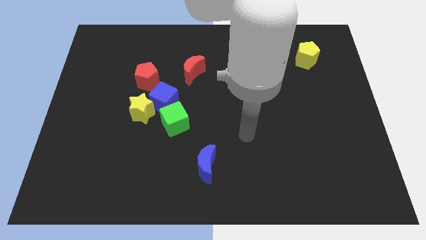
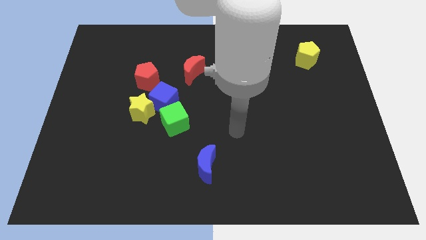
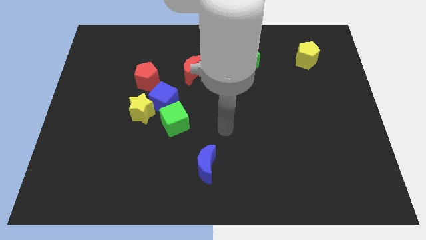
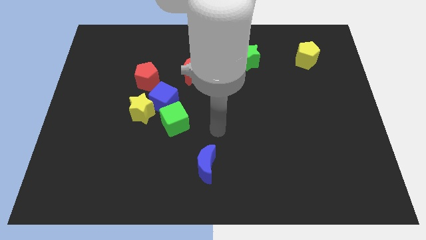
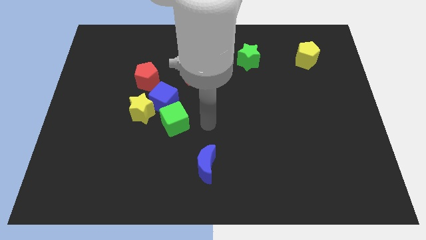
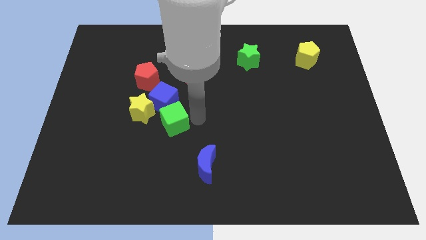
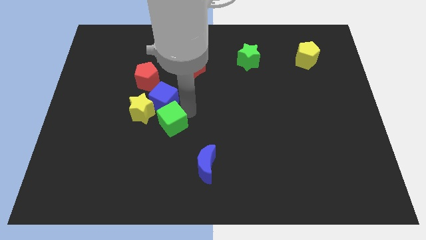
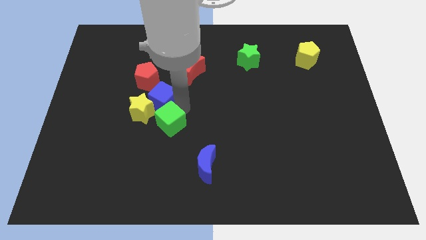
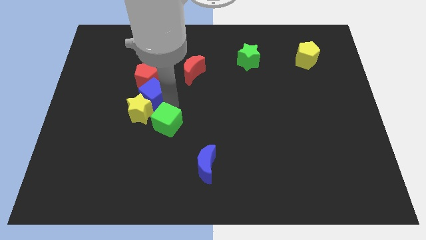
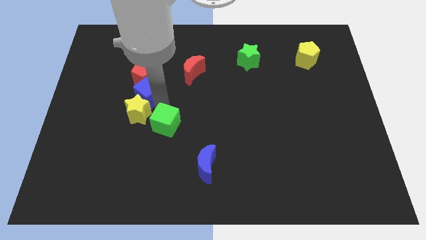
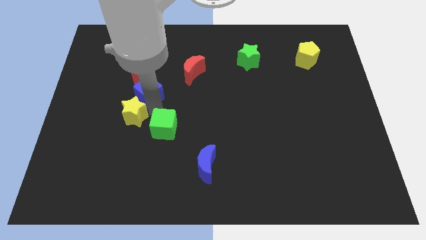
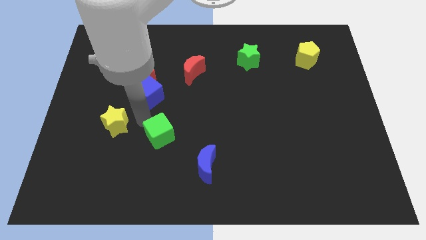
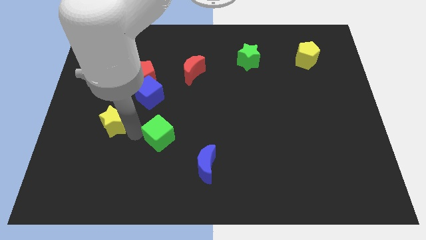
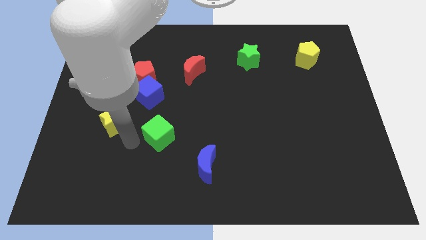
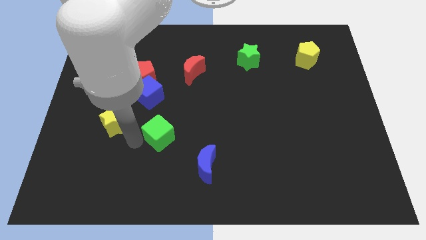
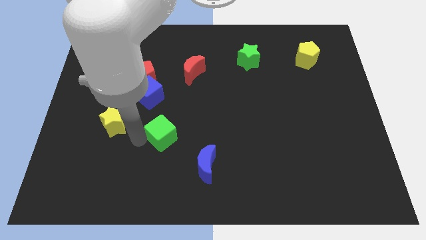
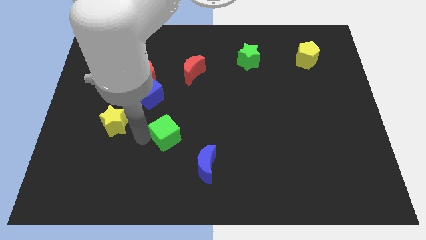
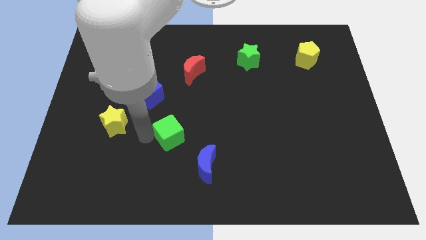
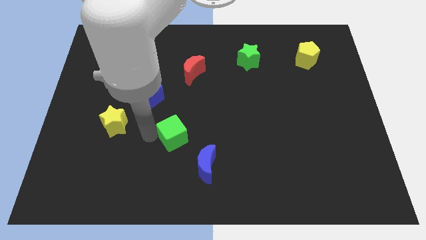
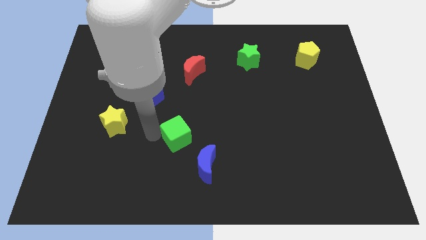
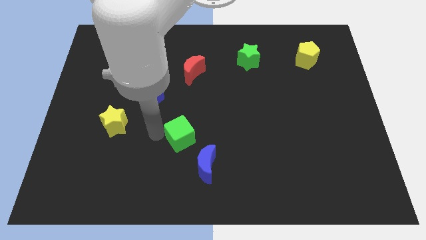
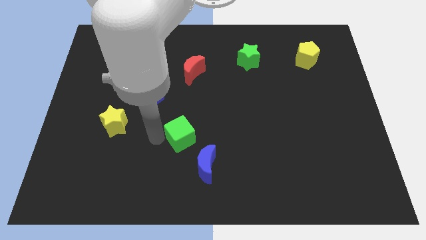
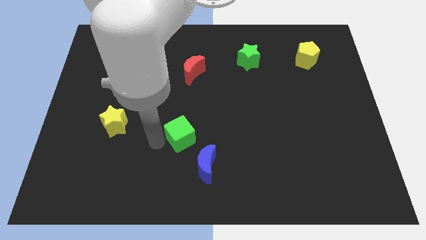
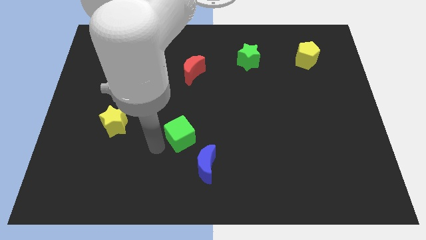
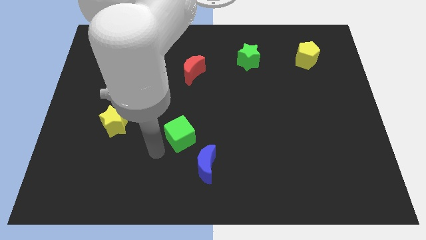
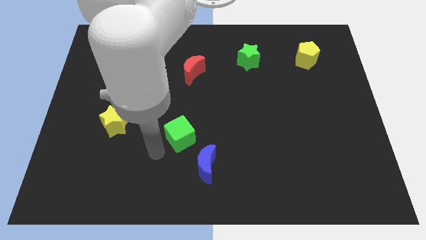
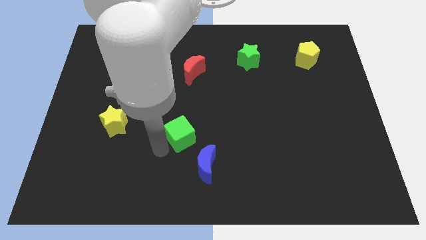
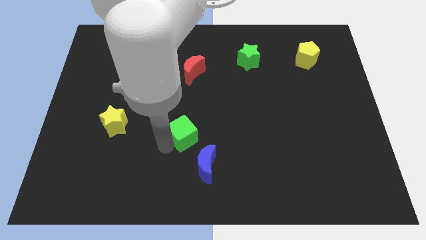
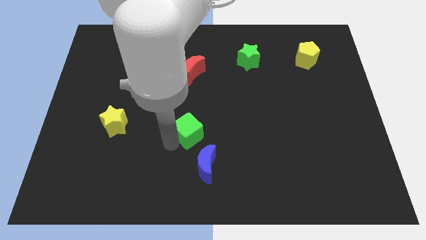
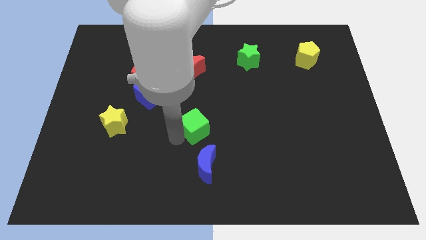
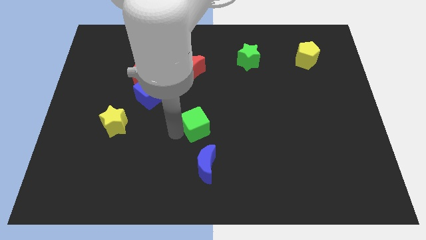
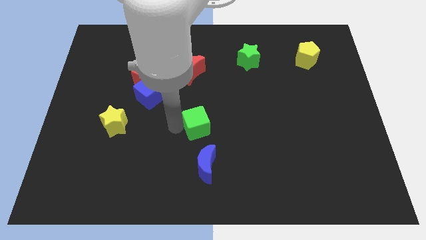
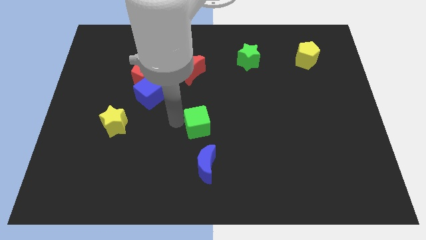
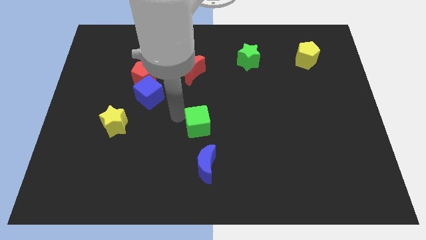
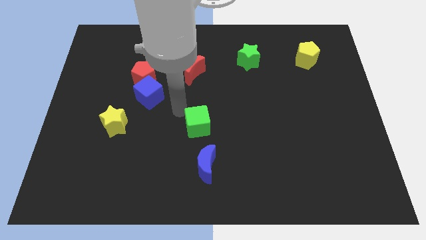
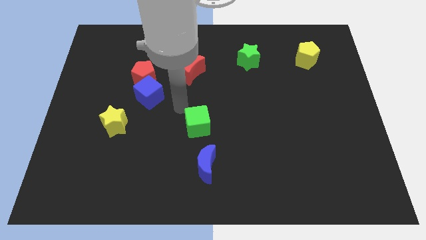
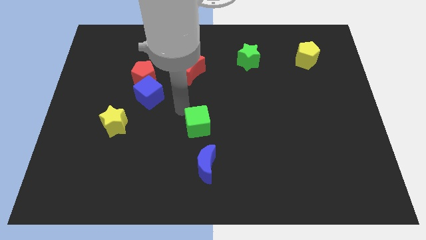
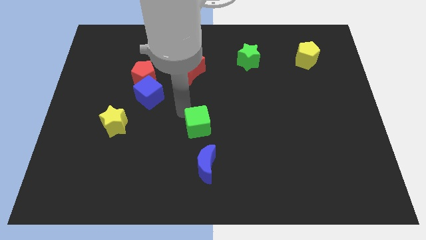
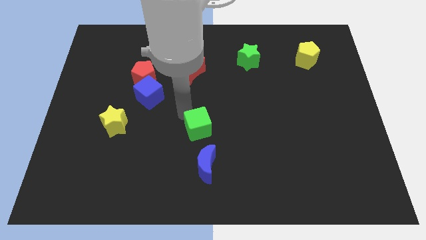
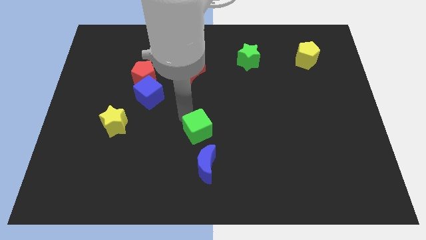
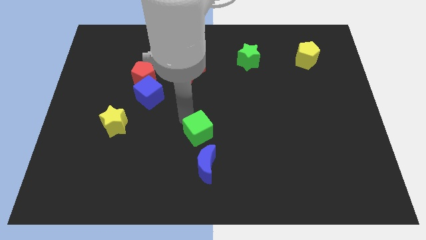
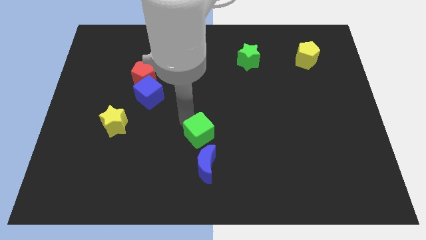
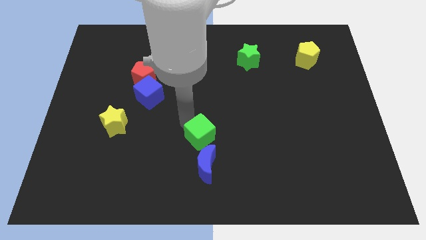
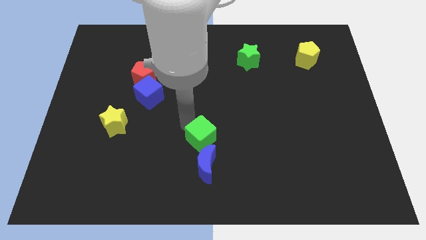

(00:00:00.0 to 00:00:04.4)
move the green cube down and to the right somewhat

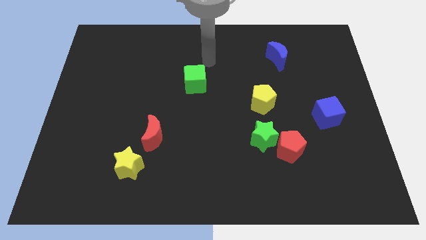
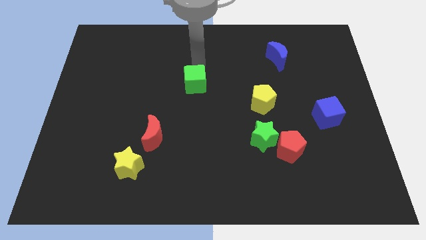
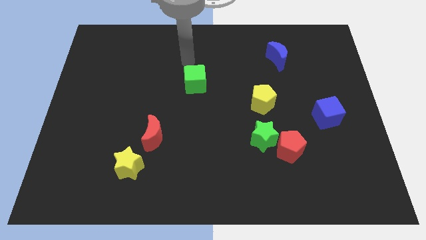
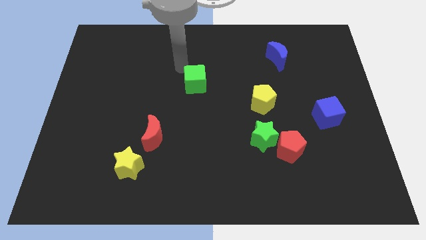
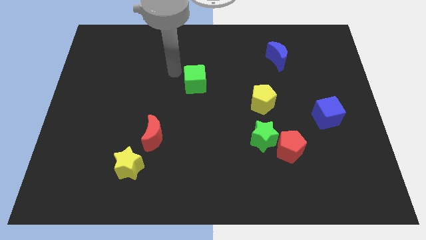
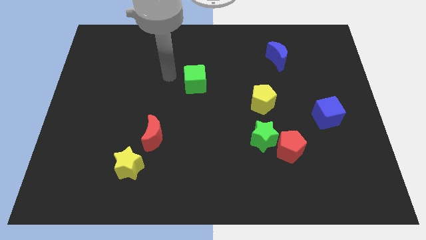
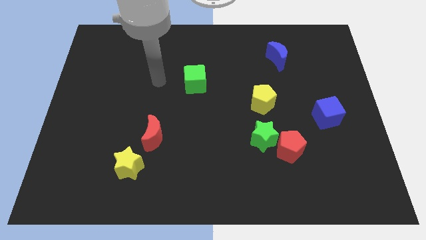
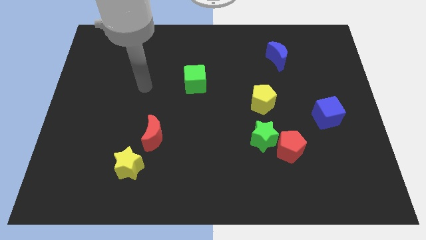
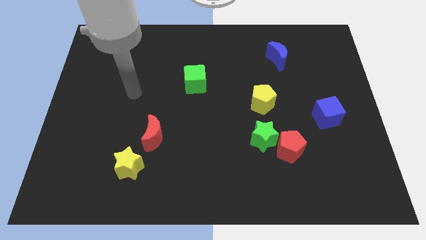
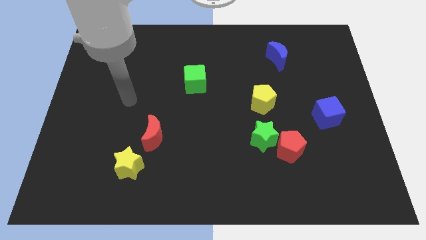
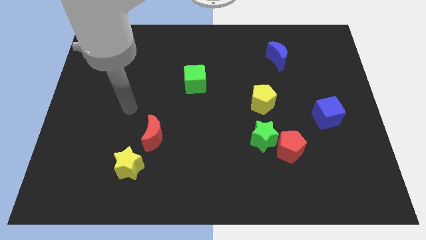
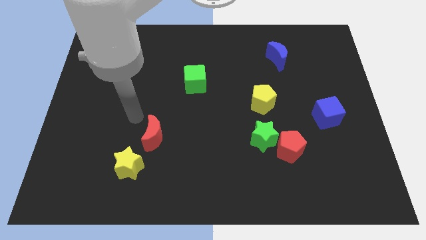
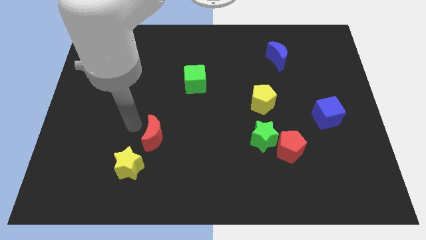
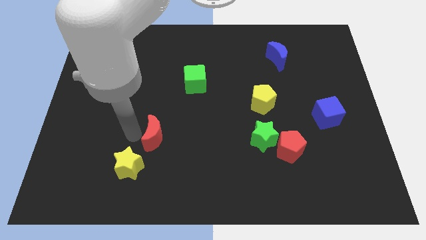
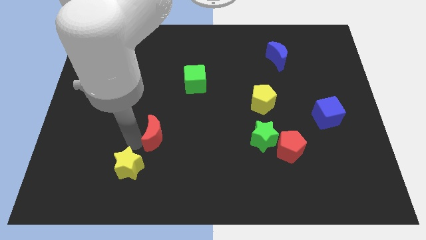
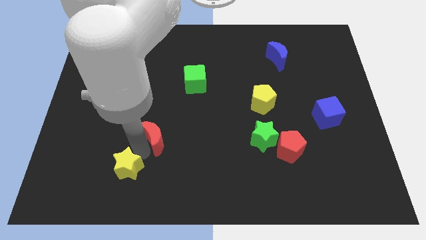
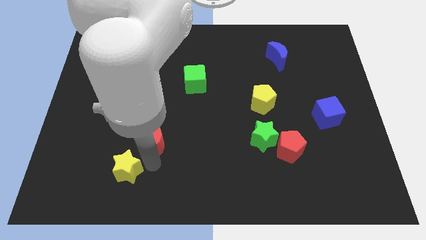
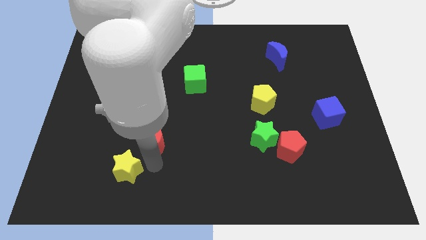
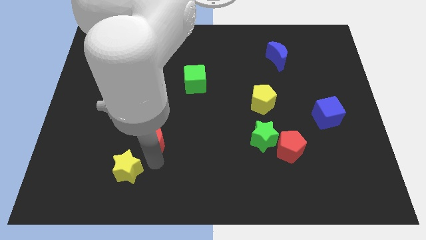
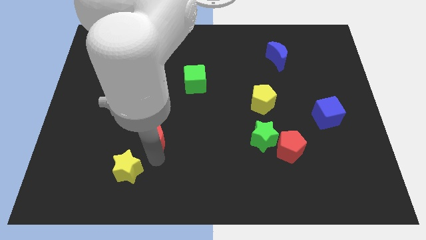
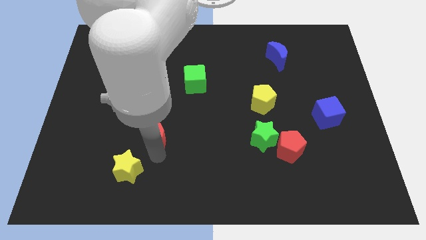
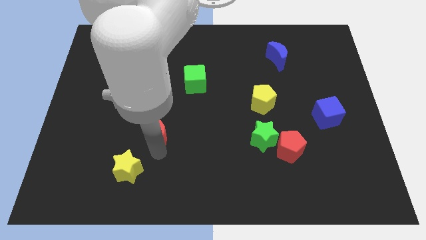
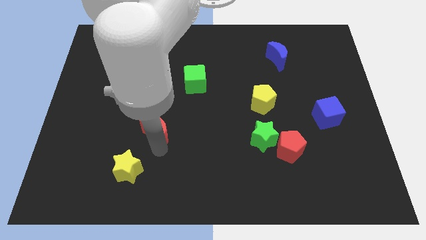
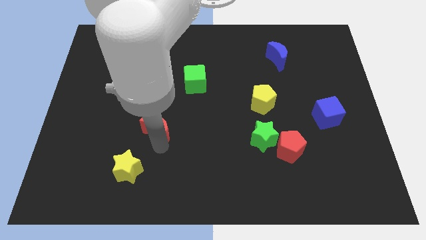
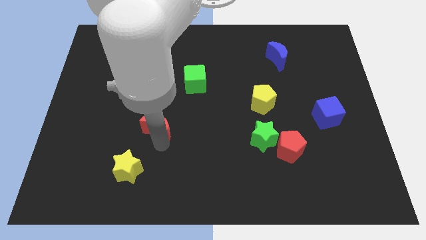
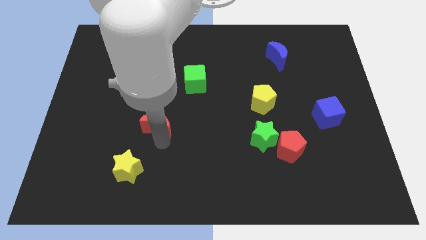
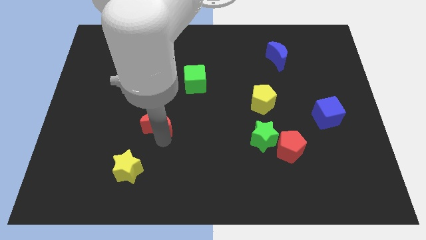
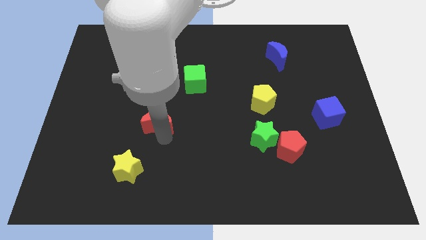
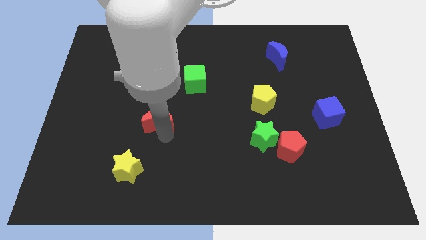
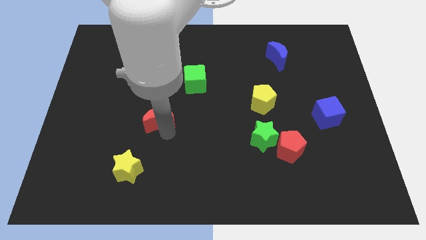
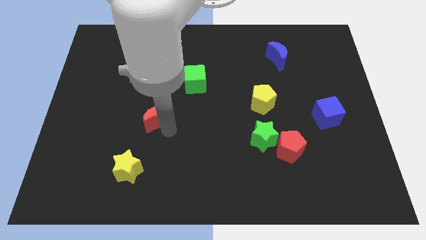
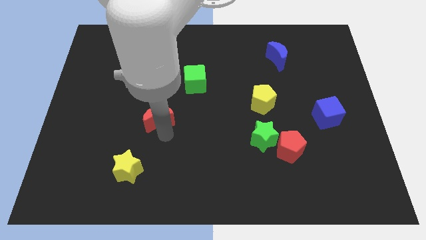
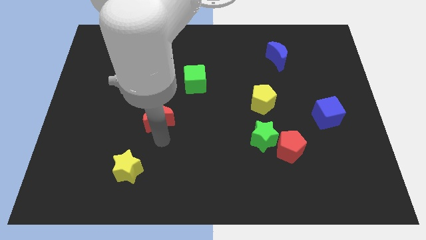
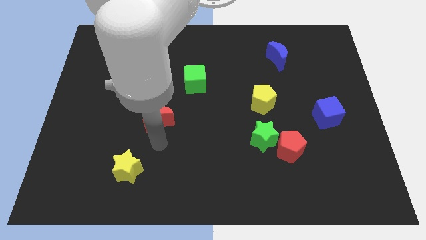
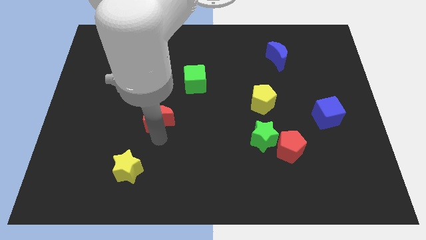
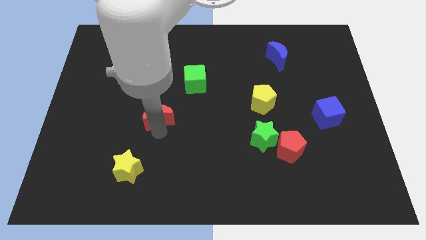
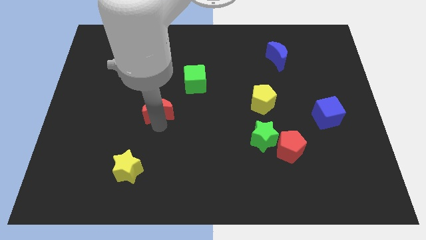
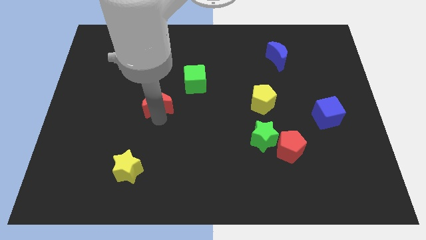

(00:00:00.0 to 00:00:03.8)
move the red moon a little upwards
